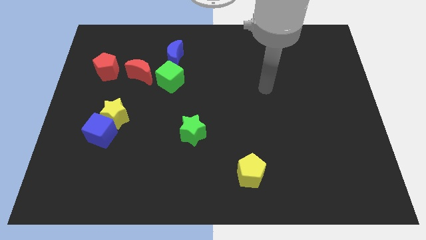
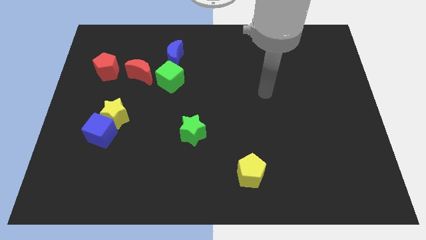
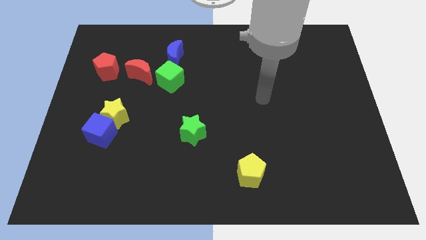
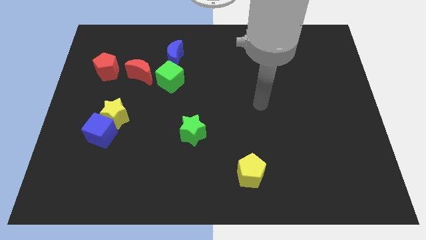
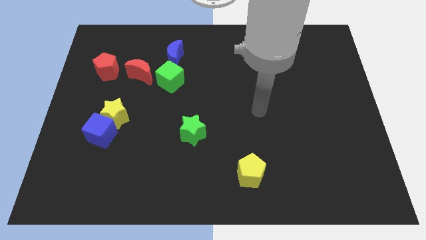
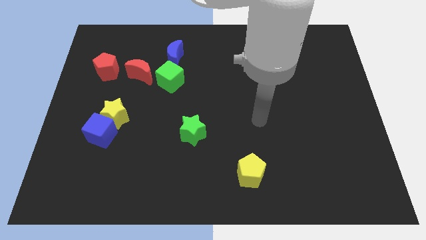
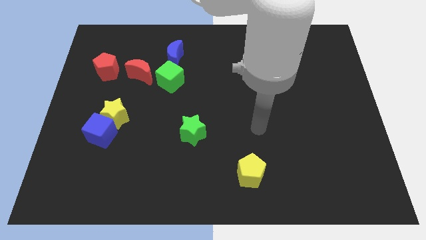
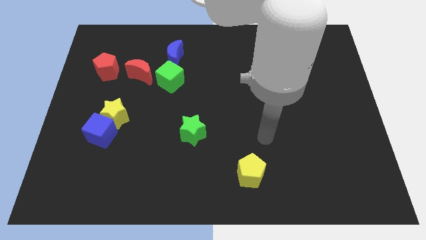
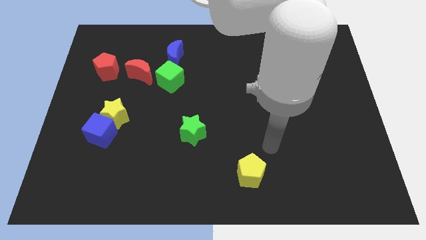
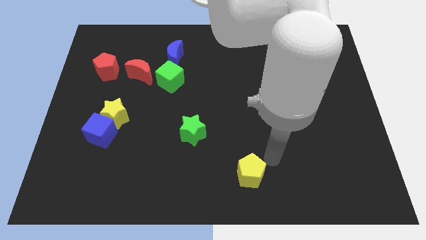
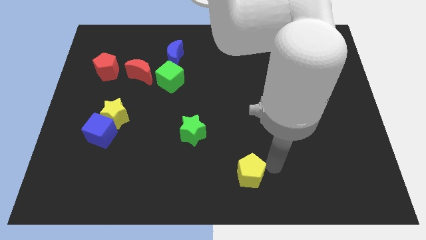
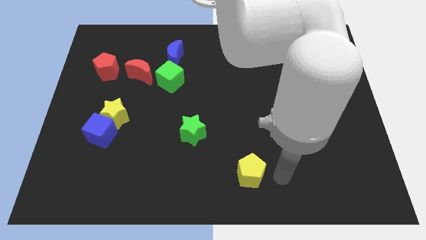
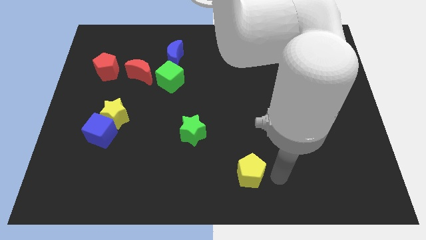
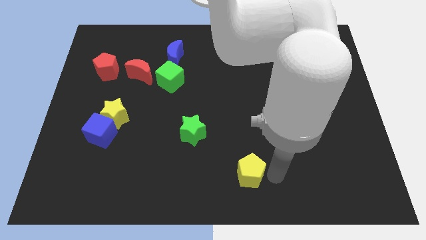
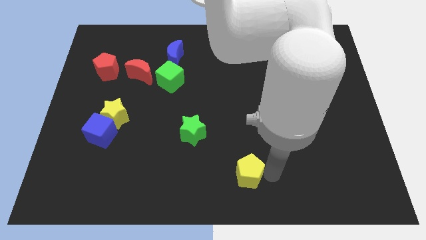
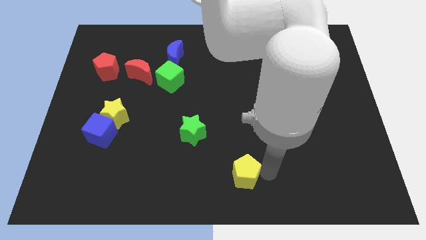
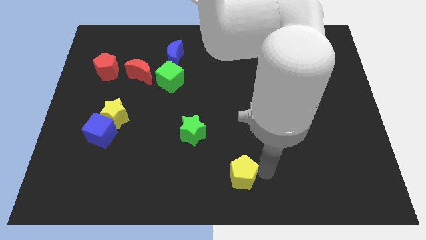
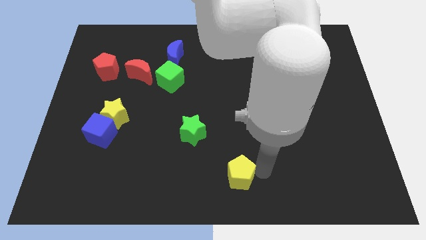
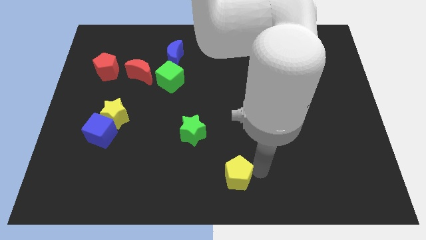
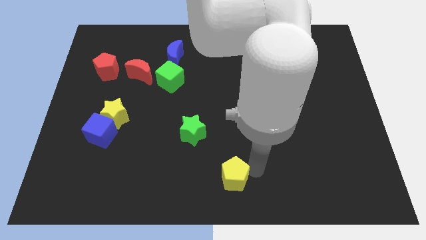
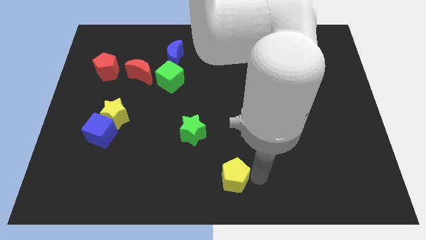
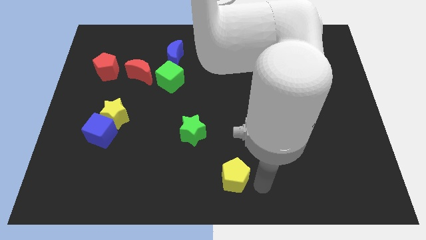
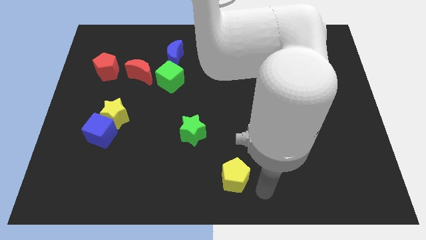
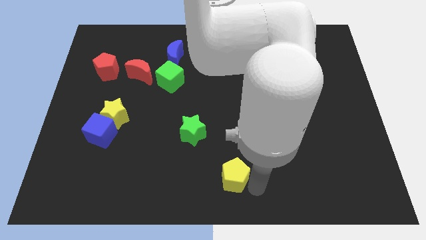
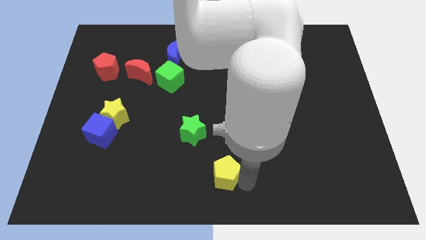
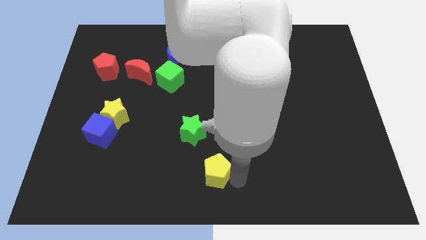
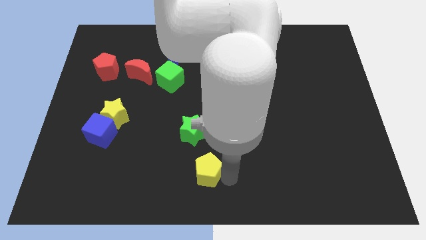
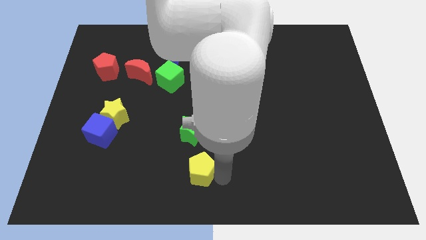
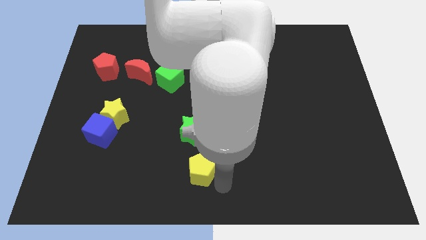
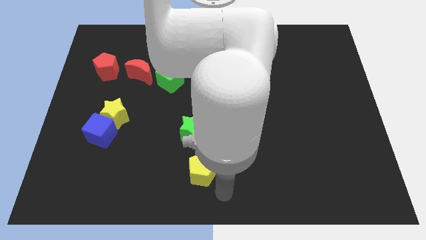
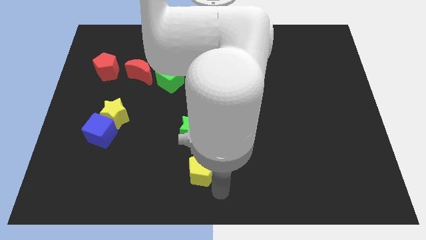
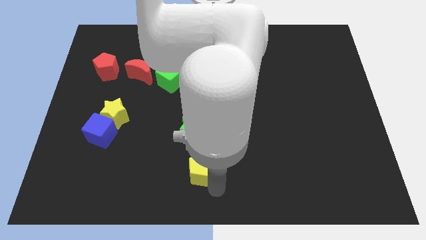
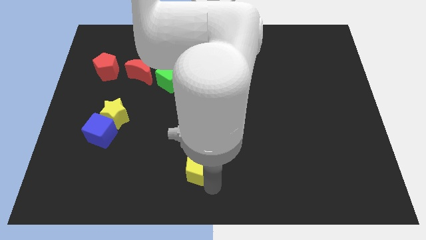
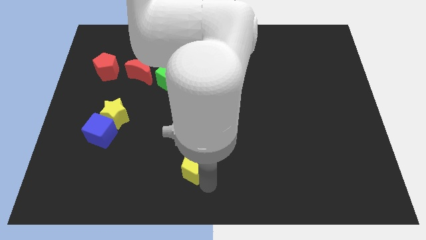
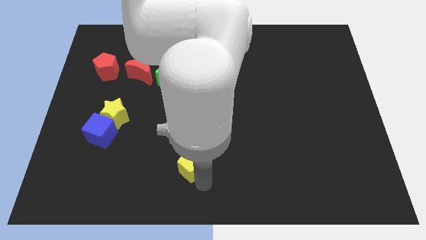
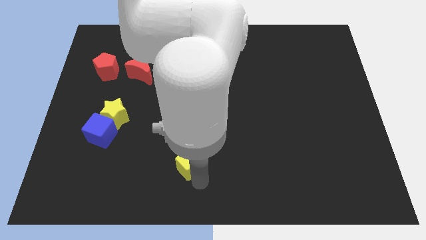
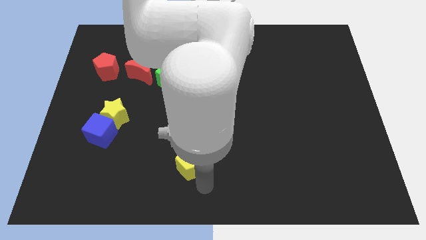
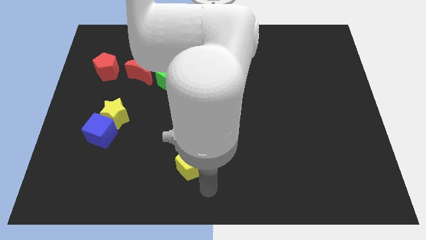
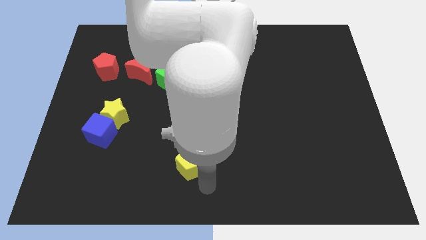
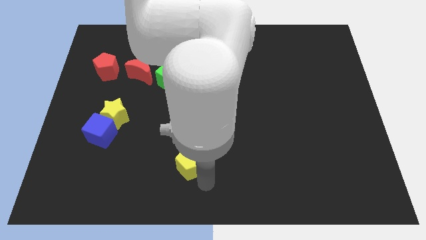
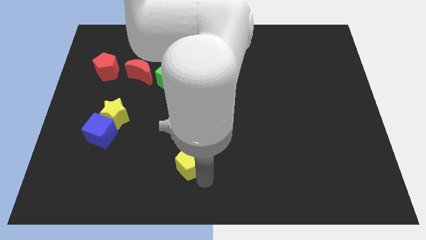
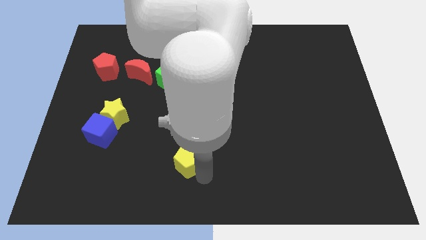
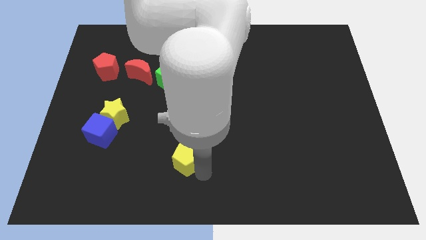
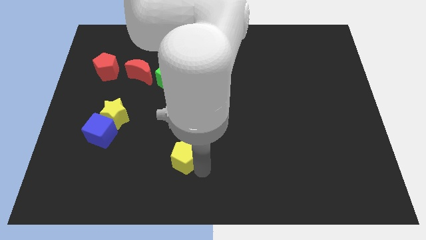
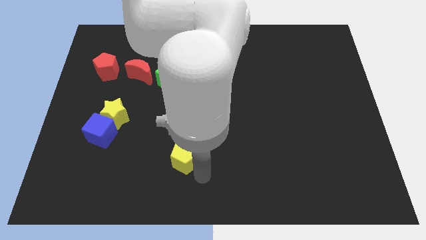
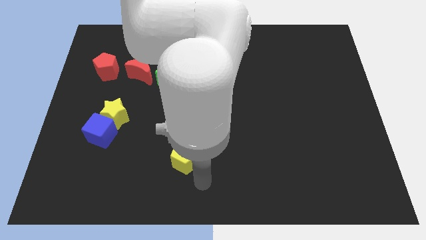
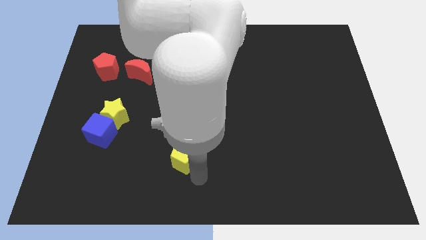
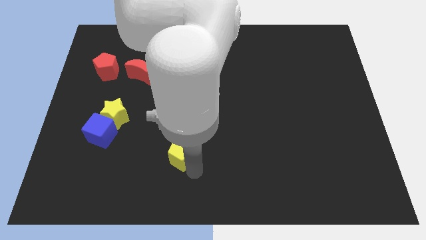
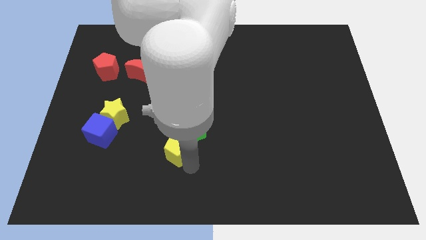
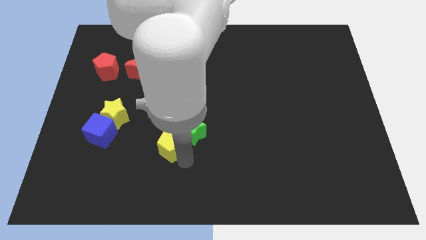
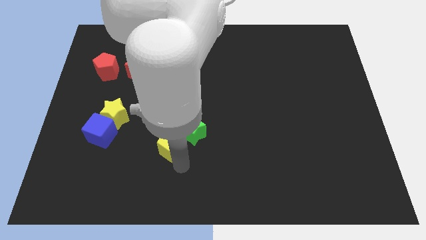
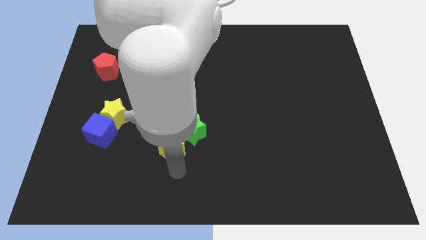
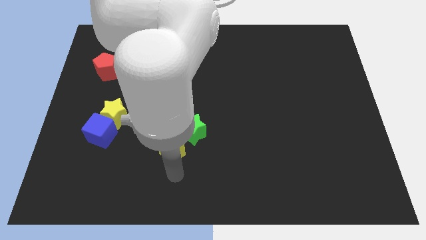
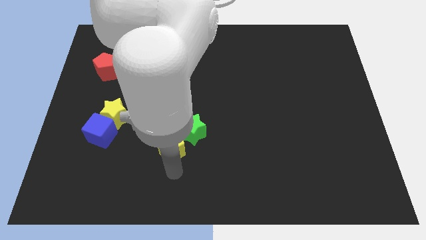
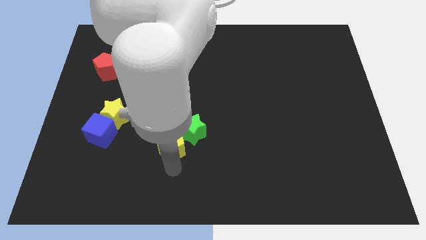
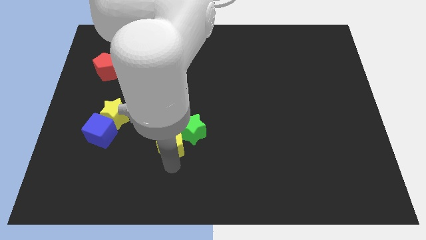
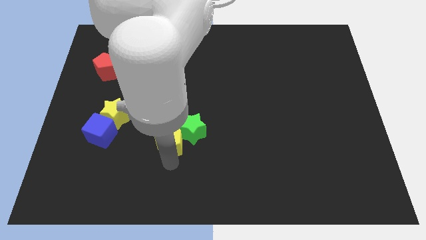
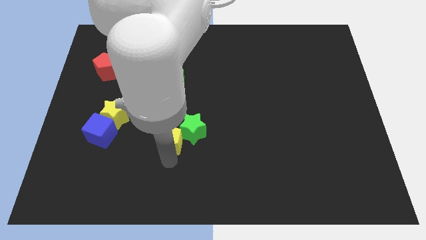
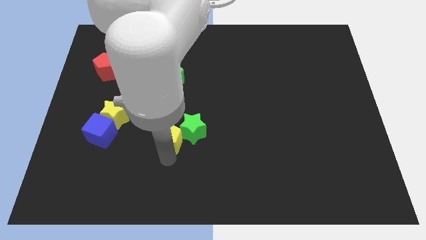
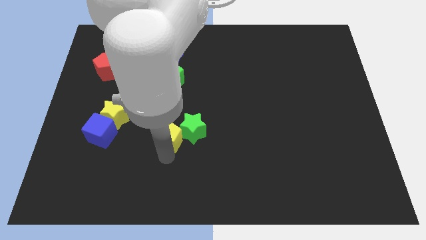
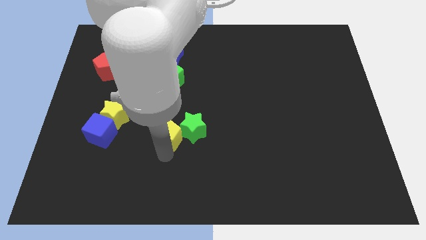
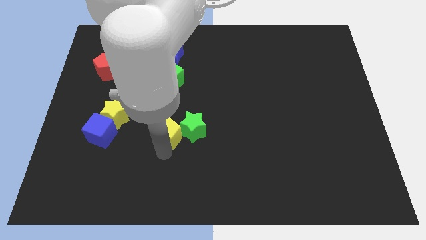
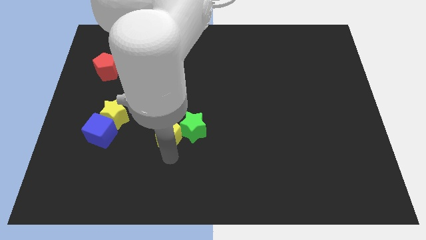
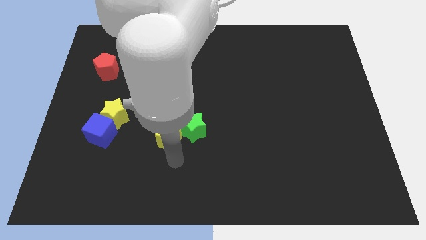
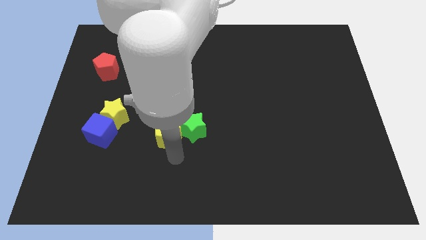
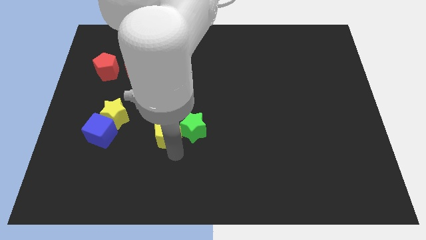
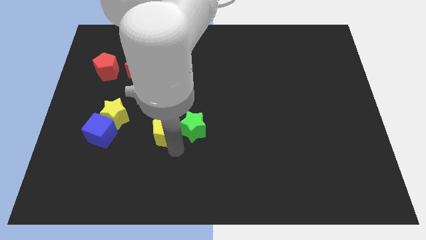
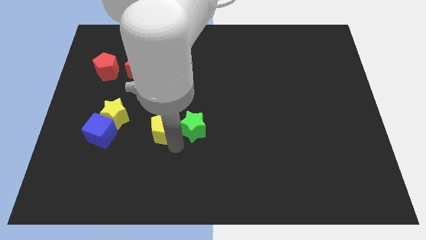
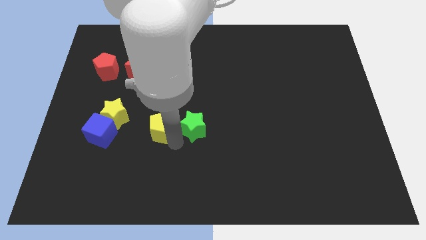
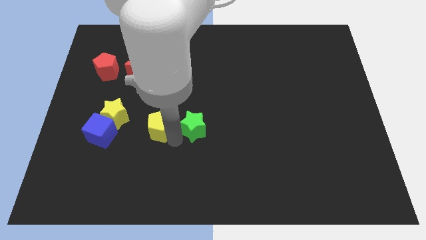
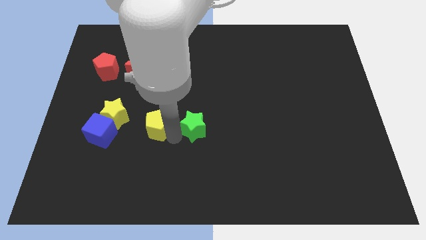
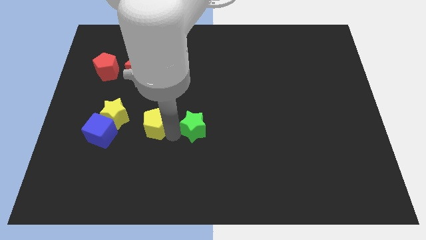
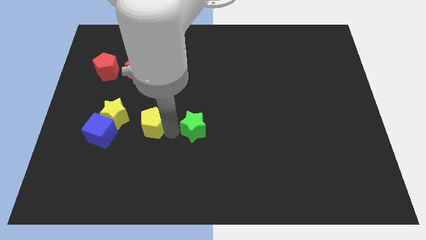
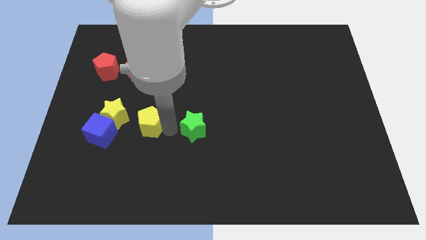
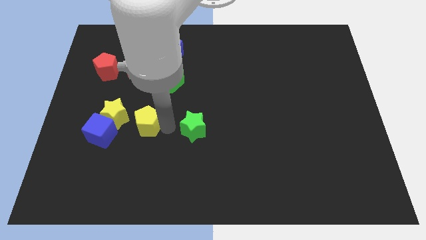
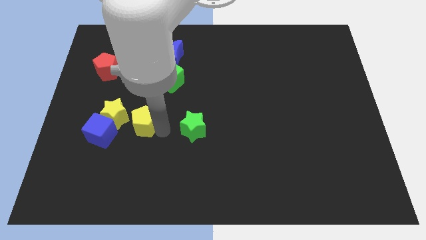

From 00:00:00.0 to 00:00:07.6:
put the yellow pentagon to the top right of the blue cube
